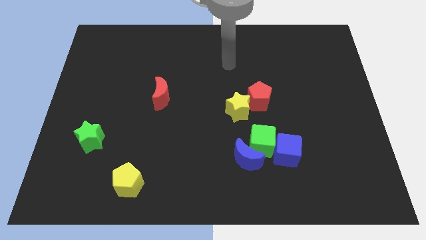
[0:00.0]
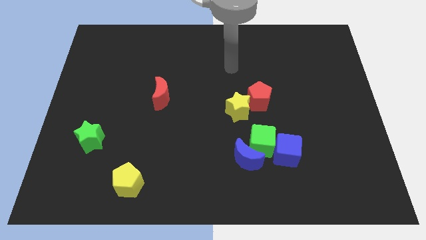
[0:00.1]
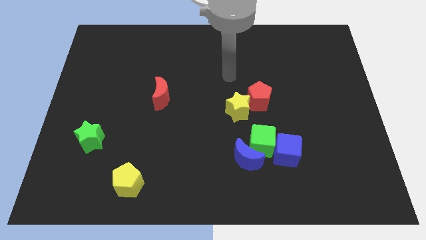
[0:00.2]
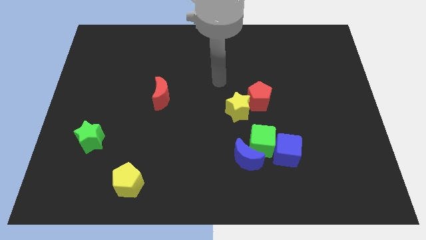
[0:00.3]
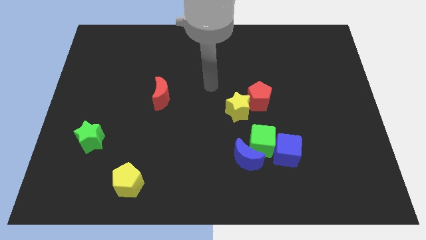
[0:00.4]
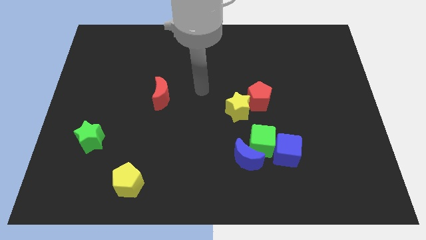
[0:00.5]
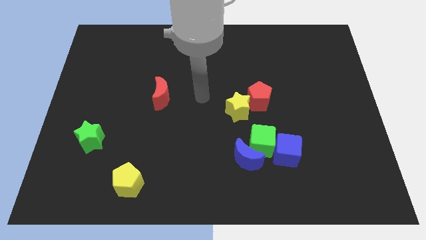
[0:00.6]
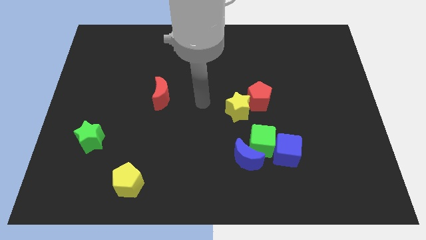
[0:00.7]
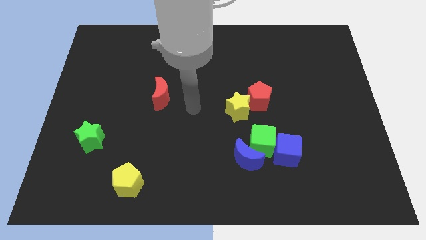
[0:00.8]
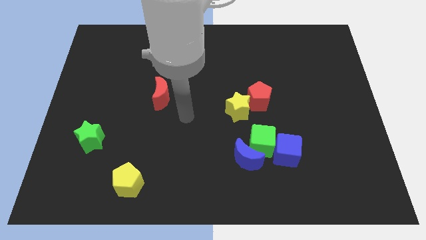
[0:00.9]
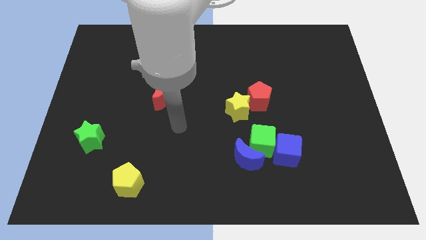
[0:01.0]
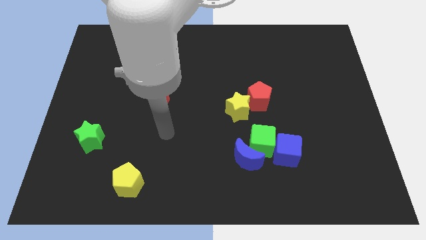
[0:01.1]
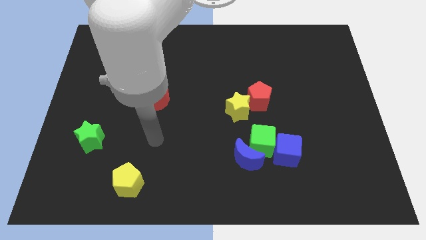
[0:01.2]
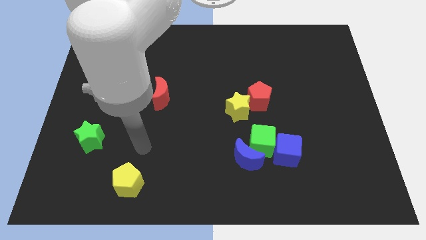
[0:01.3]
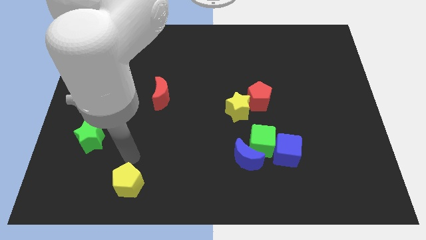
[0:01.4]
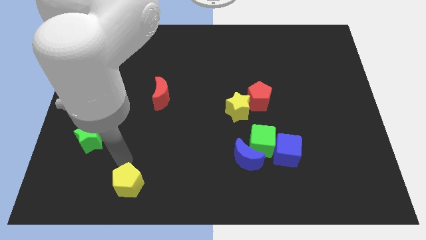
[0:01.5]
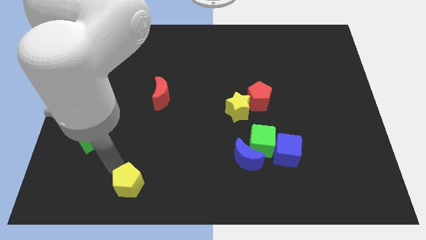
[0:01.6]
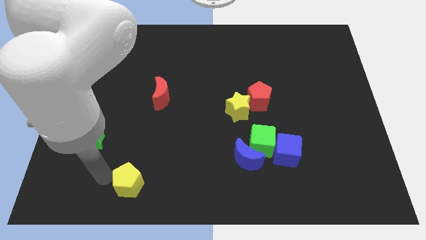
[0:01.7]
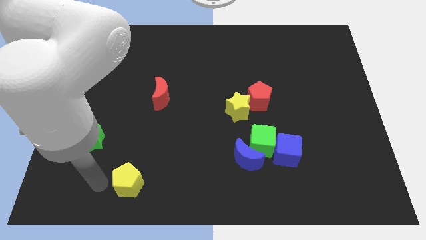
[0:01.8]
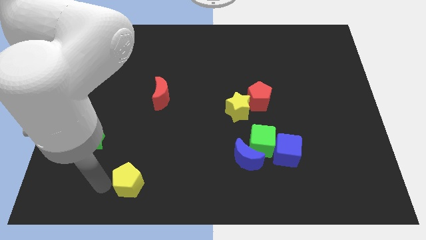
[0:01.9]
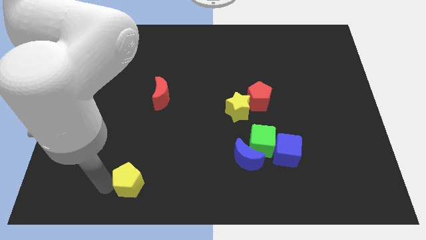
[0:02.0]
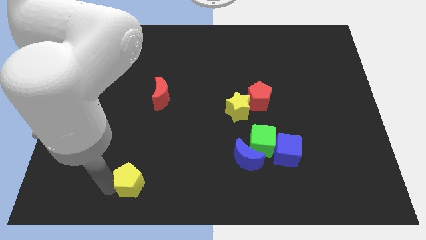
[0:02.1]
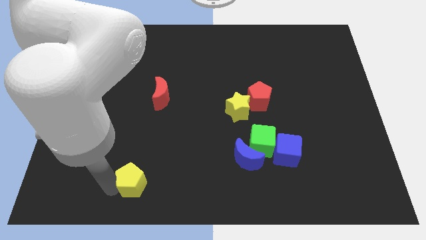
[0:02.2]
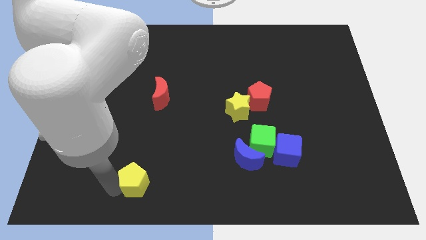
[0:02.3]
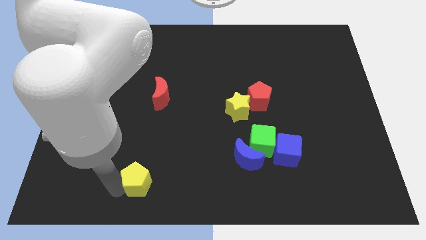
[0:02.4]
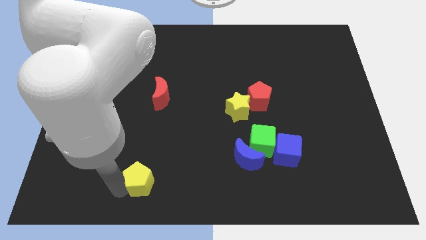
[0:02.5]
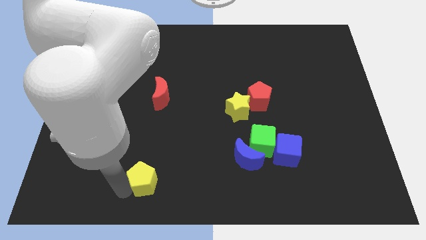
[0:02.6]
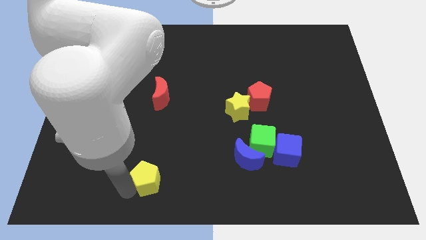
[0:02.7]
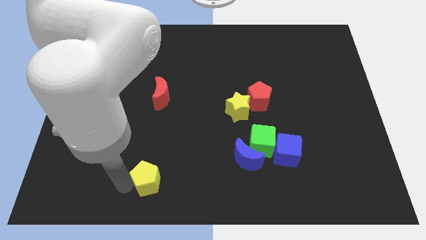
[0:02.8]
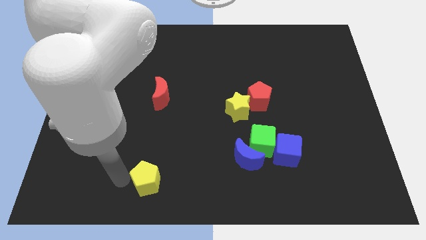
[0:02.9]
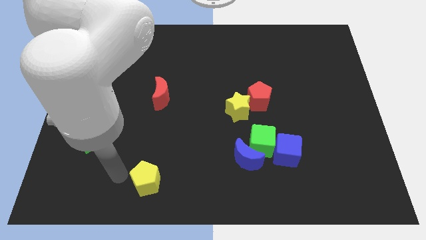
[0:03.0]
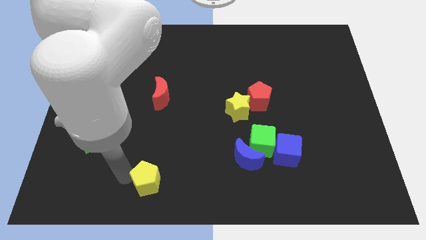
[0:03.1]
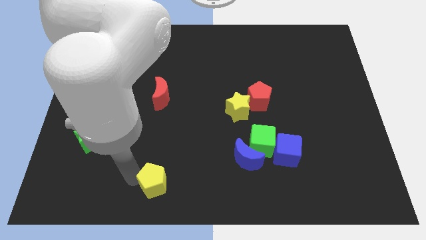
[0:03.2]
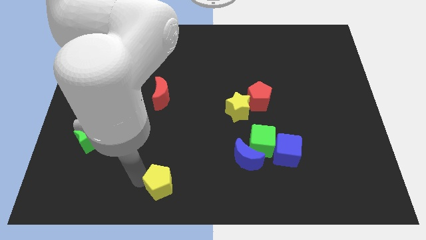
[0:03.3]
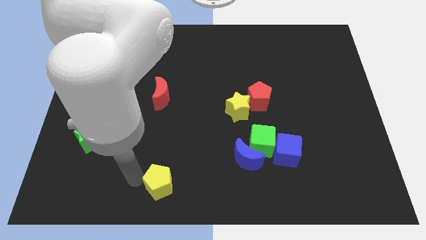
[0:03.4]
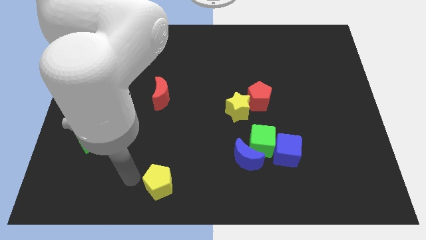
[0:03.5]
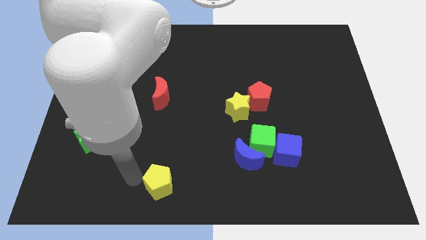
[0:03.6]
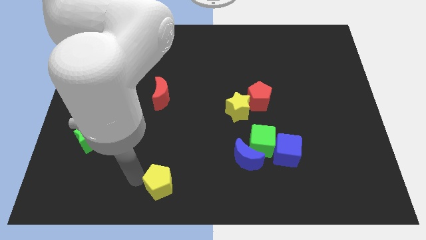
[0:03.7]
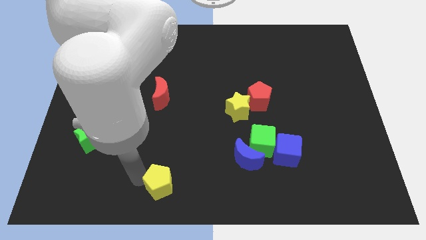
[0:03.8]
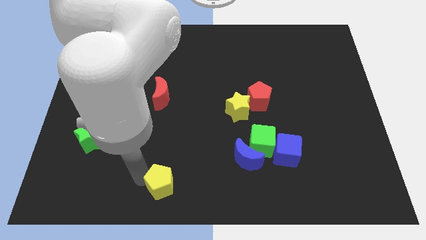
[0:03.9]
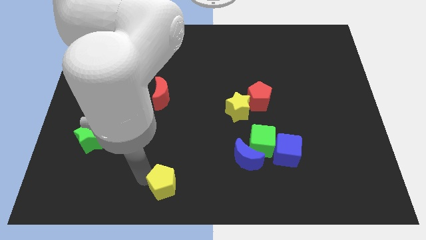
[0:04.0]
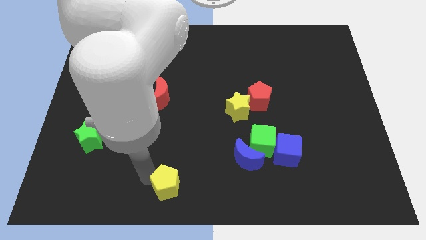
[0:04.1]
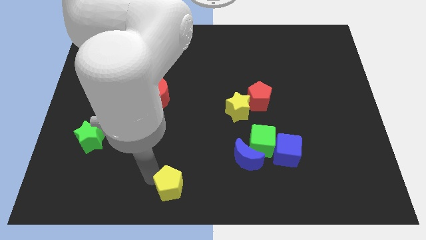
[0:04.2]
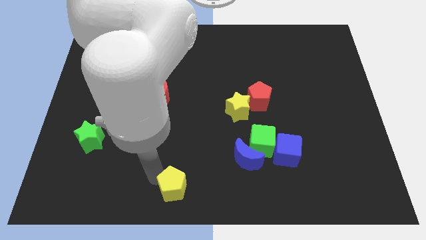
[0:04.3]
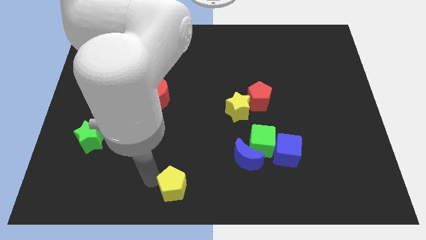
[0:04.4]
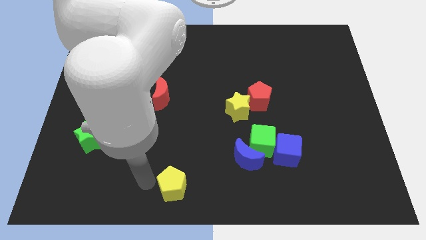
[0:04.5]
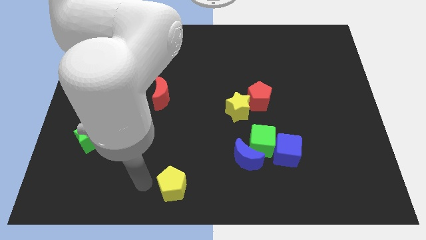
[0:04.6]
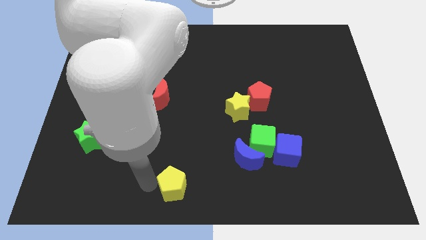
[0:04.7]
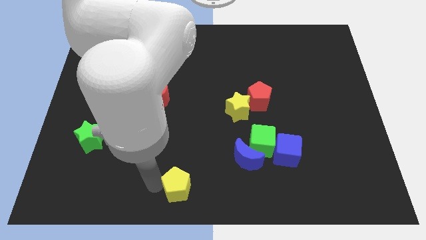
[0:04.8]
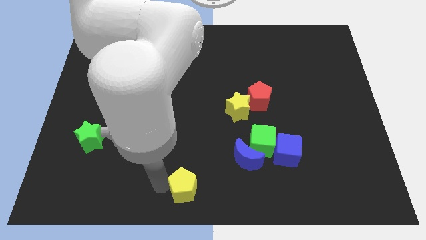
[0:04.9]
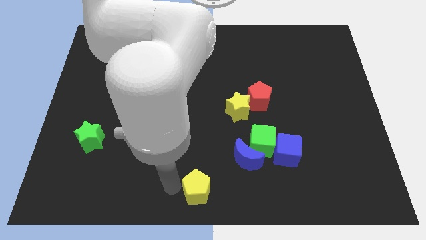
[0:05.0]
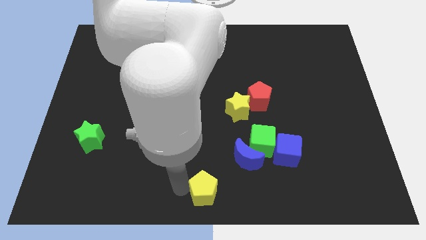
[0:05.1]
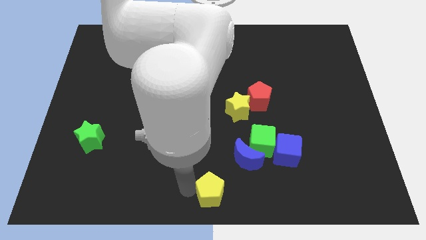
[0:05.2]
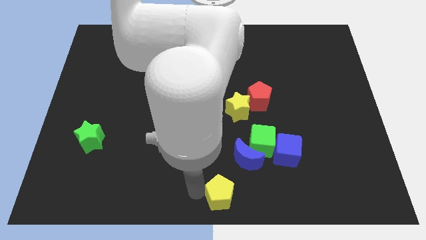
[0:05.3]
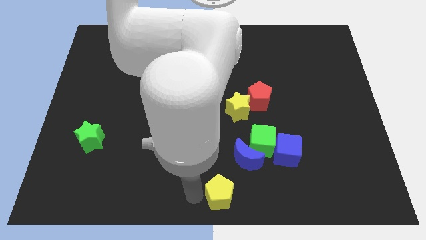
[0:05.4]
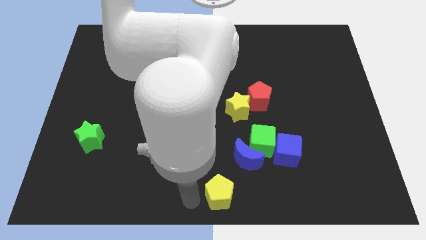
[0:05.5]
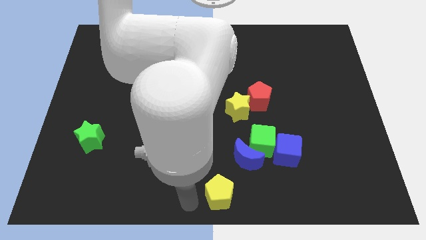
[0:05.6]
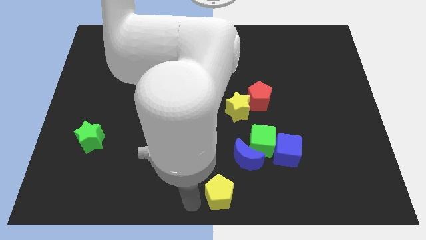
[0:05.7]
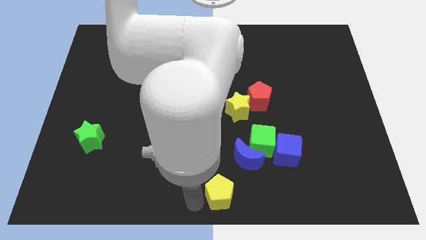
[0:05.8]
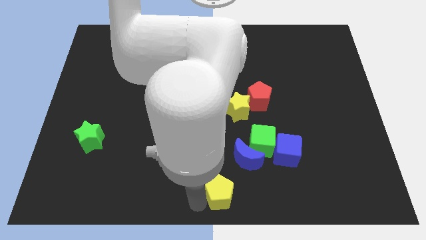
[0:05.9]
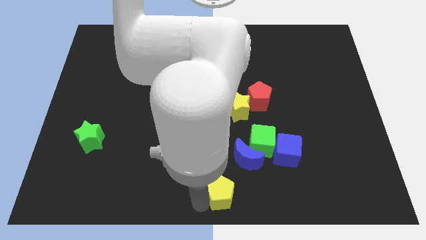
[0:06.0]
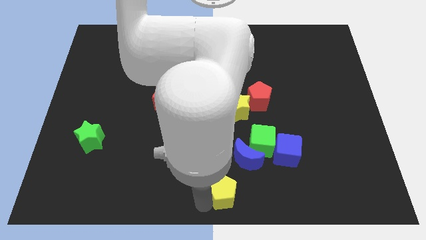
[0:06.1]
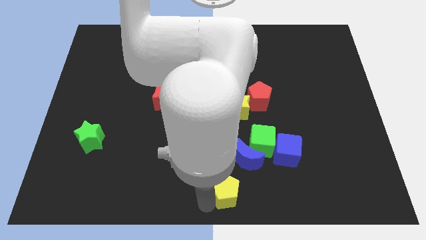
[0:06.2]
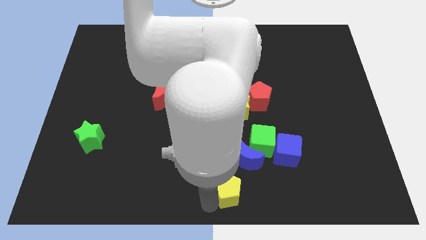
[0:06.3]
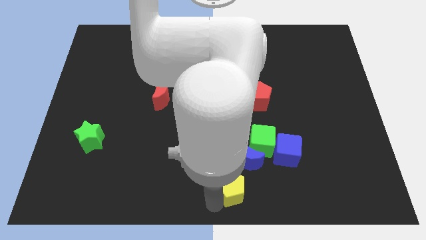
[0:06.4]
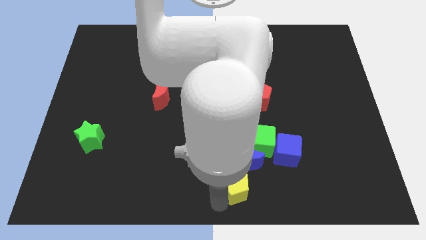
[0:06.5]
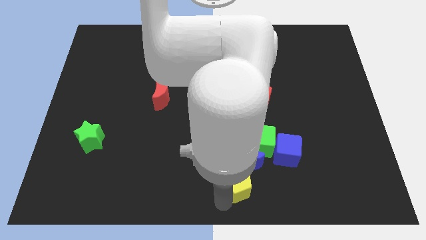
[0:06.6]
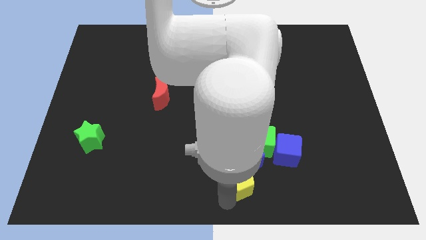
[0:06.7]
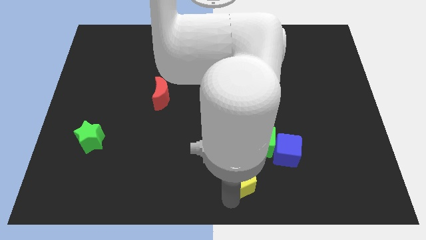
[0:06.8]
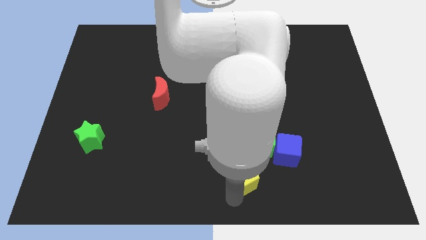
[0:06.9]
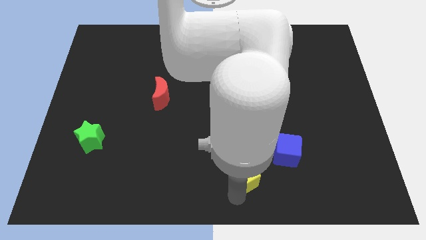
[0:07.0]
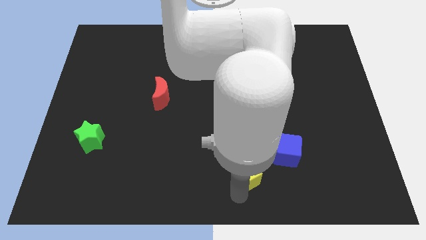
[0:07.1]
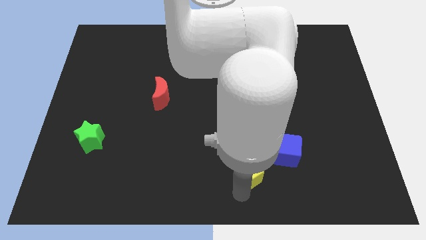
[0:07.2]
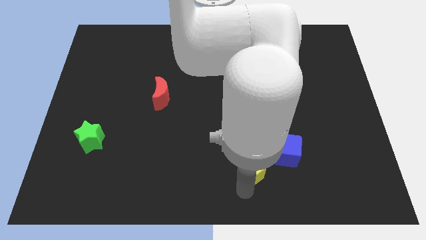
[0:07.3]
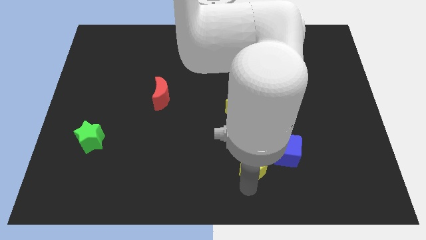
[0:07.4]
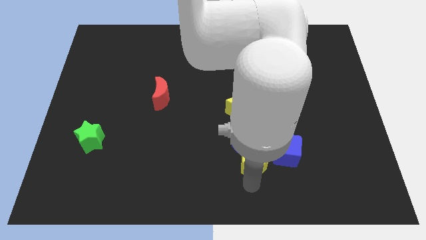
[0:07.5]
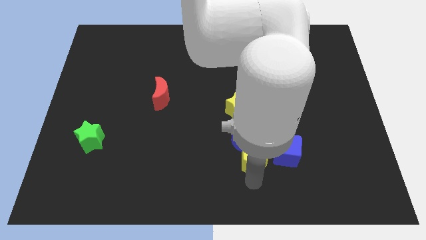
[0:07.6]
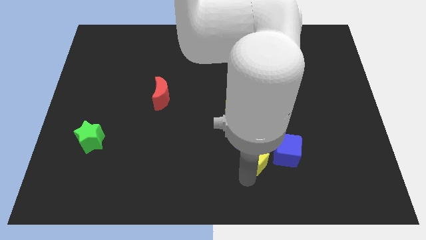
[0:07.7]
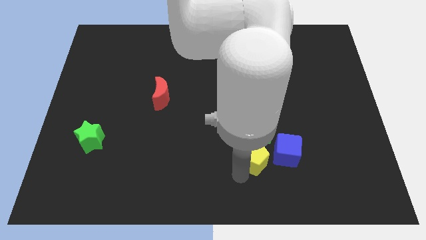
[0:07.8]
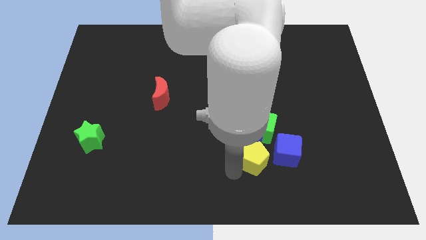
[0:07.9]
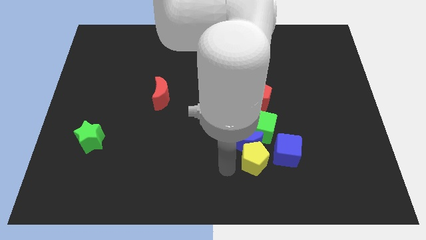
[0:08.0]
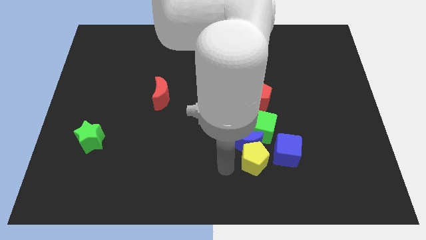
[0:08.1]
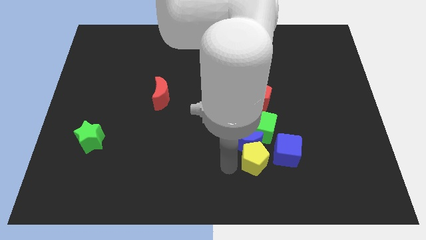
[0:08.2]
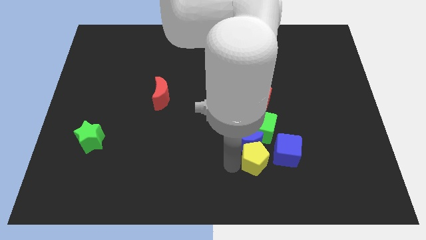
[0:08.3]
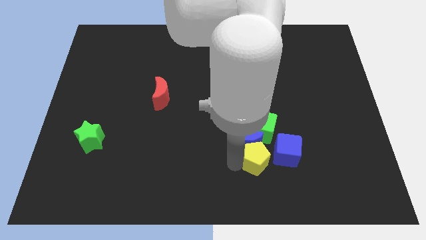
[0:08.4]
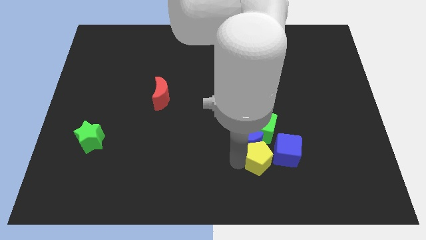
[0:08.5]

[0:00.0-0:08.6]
move the yellow pentagon next to the blue cube
